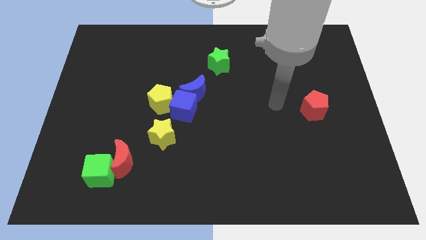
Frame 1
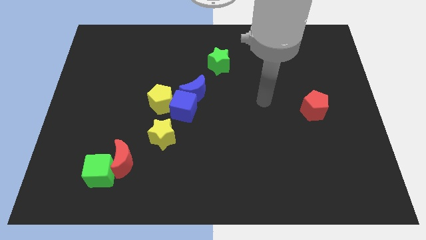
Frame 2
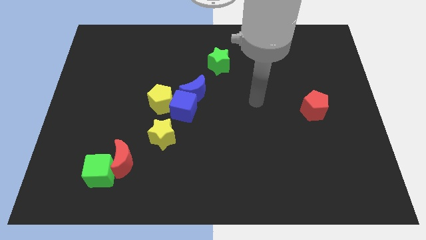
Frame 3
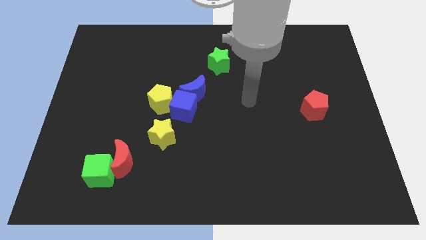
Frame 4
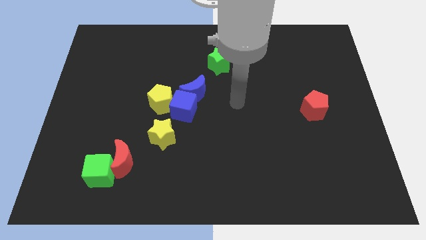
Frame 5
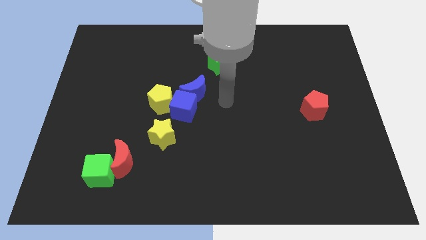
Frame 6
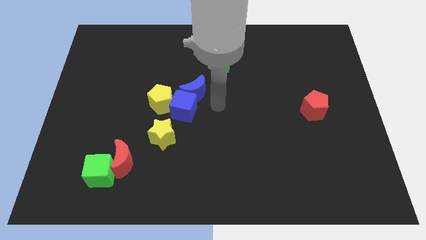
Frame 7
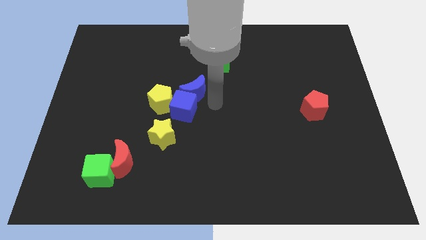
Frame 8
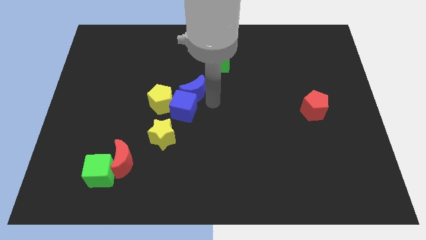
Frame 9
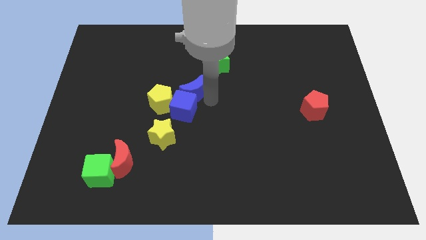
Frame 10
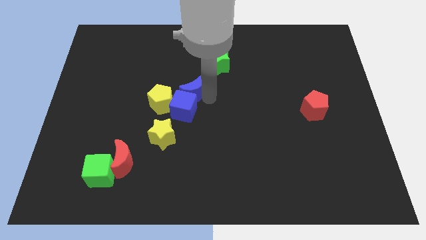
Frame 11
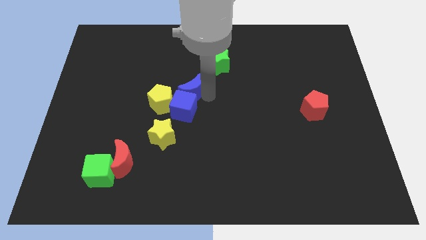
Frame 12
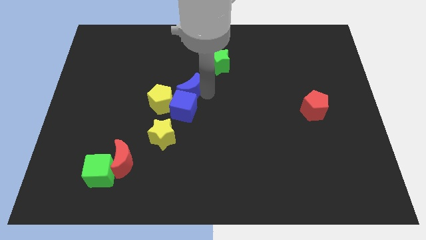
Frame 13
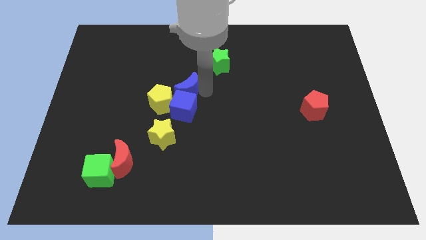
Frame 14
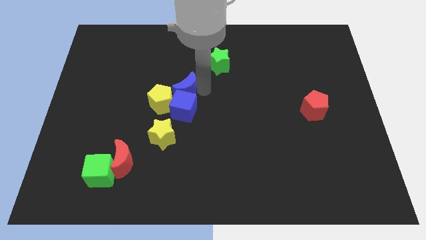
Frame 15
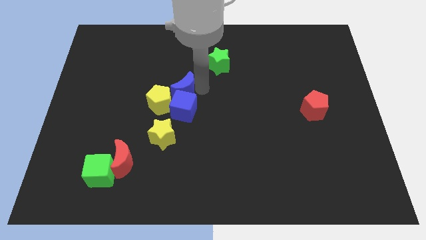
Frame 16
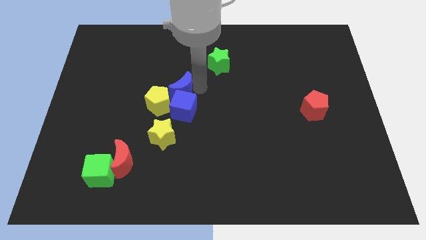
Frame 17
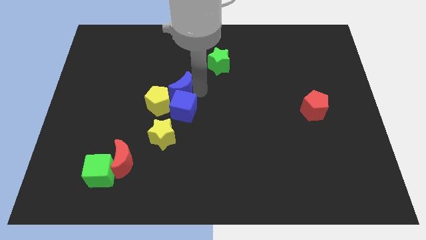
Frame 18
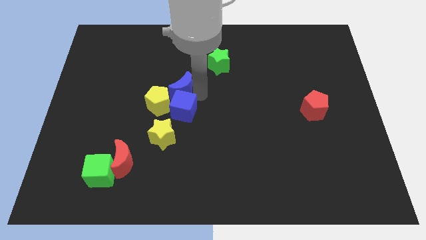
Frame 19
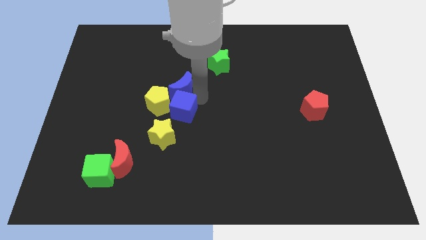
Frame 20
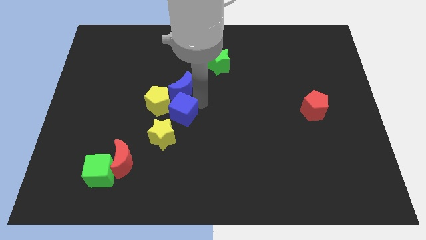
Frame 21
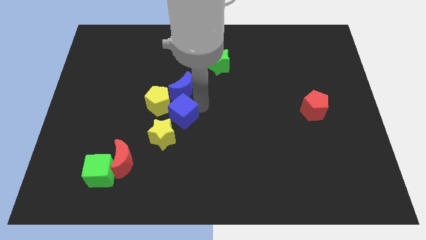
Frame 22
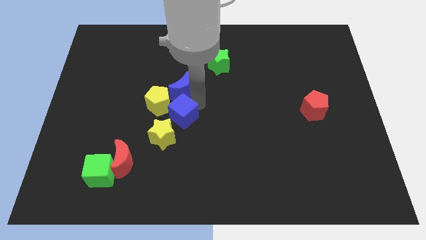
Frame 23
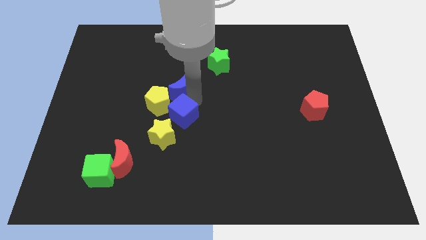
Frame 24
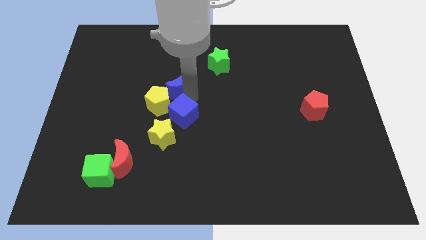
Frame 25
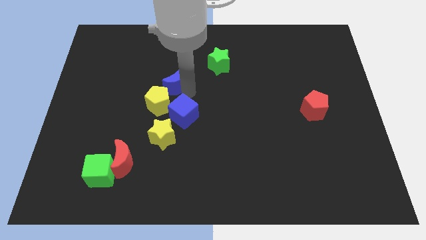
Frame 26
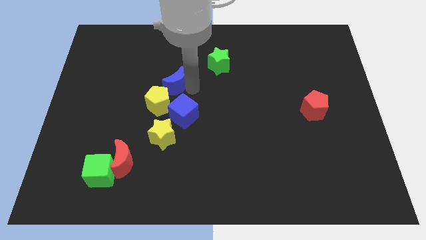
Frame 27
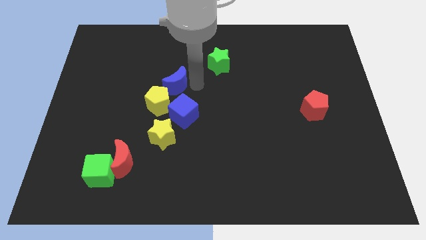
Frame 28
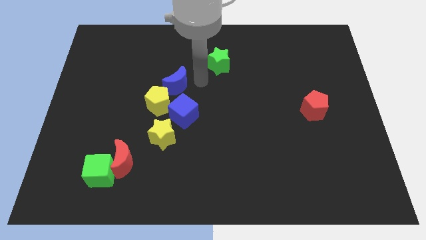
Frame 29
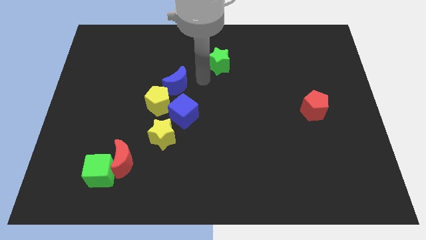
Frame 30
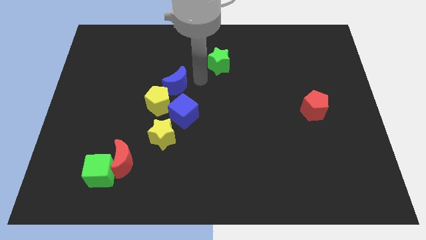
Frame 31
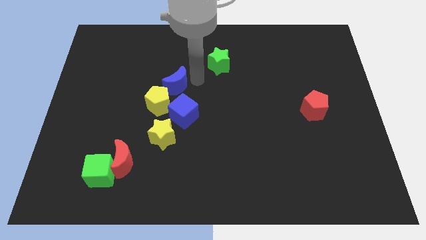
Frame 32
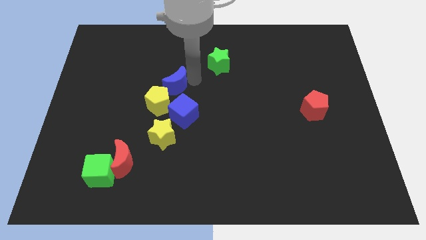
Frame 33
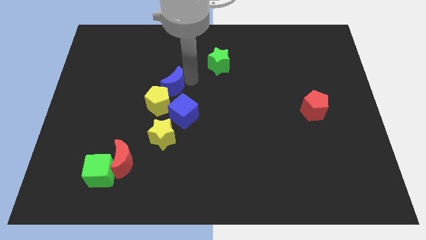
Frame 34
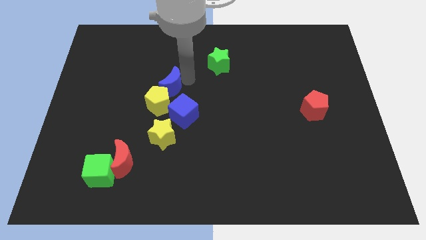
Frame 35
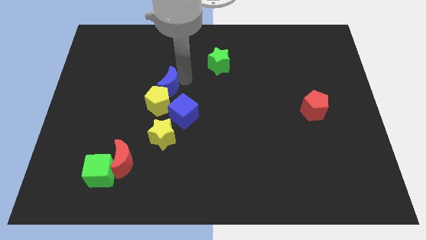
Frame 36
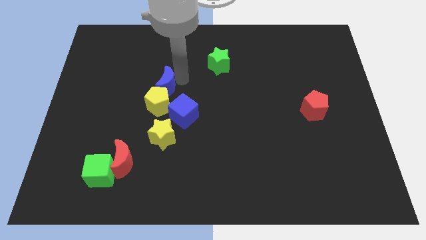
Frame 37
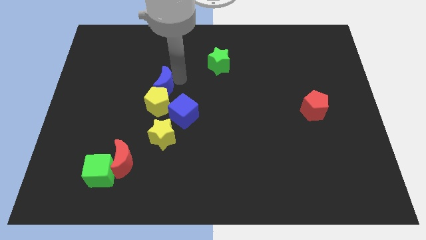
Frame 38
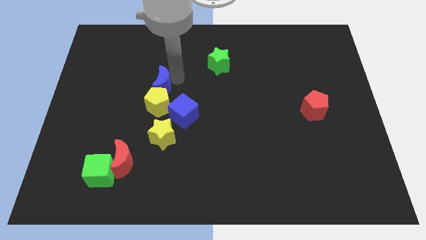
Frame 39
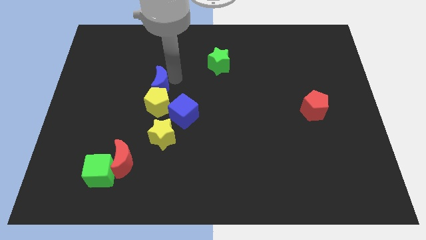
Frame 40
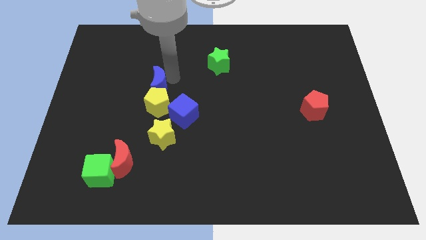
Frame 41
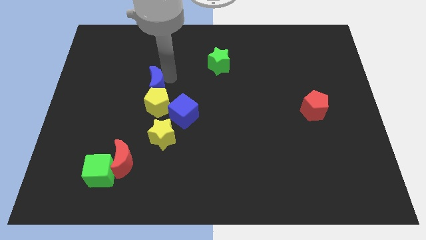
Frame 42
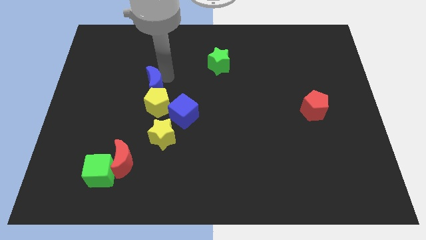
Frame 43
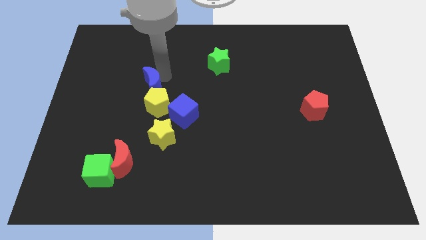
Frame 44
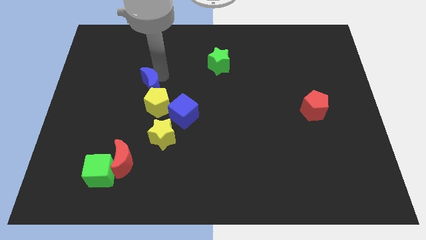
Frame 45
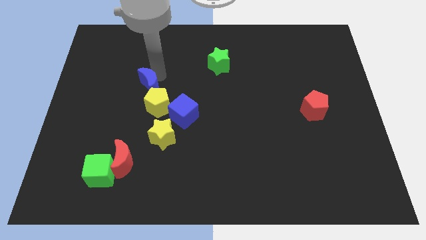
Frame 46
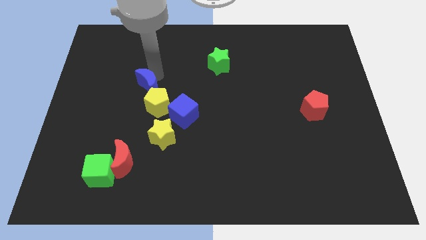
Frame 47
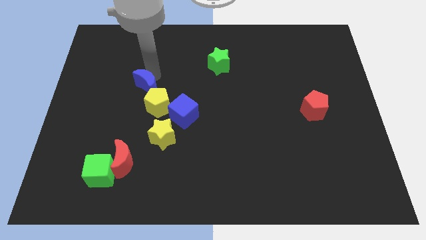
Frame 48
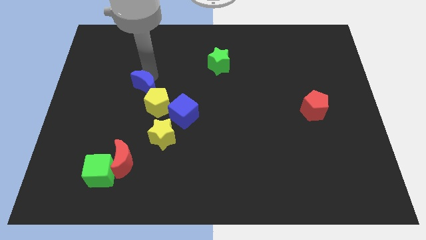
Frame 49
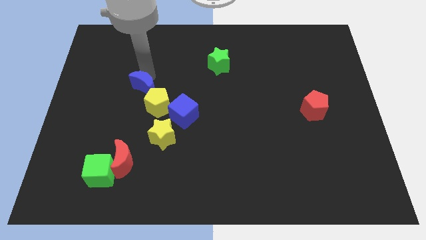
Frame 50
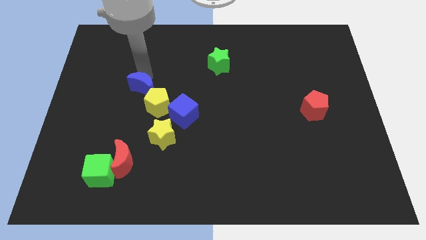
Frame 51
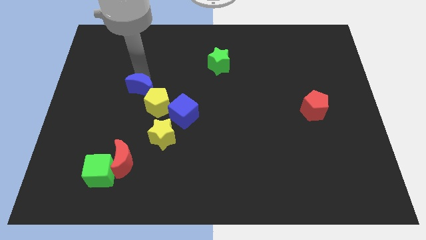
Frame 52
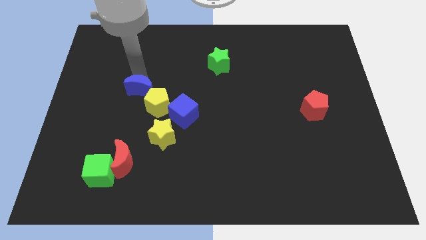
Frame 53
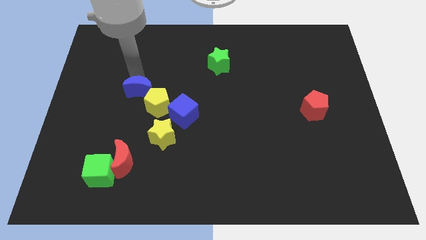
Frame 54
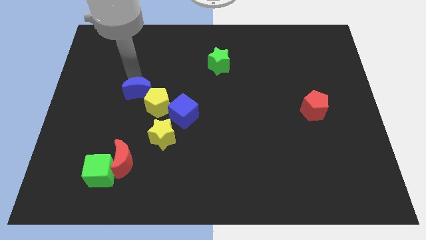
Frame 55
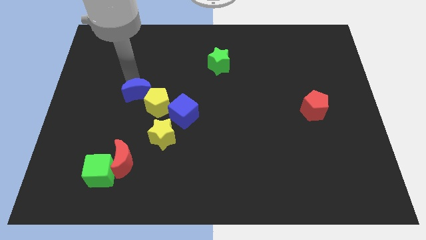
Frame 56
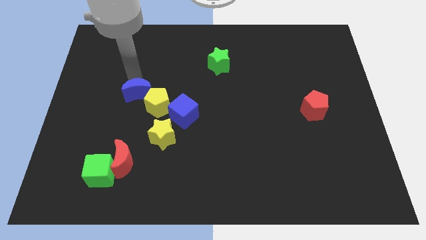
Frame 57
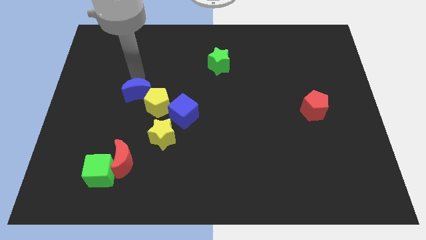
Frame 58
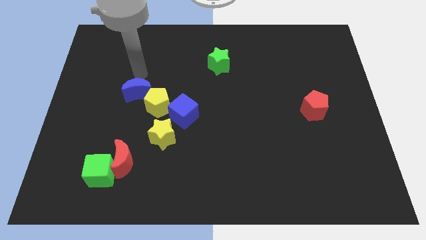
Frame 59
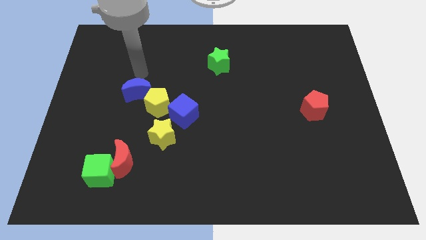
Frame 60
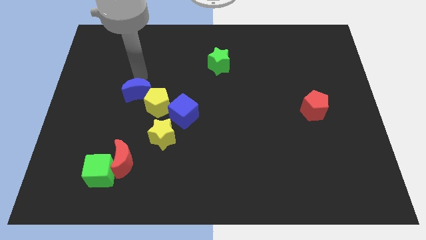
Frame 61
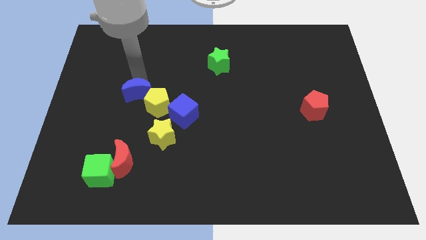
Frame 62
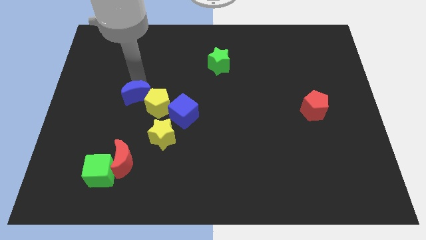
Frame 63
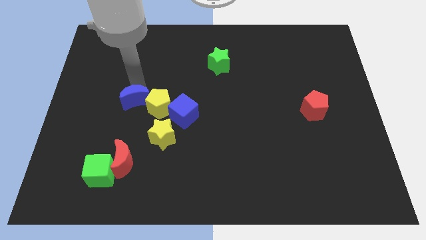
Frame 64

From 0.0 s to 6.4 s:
move the blue moon somewhat down and left

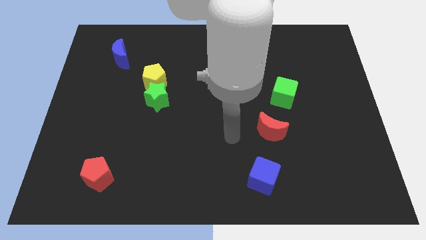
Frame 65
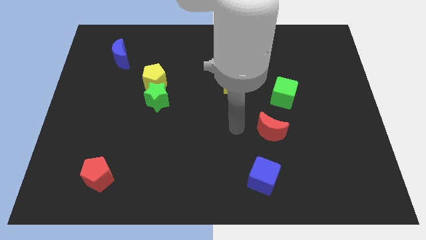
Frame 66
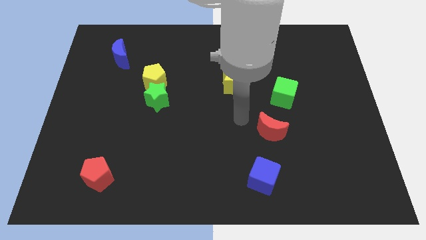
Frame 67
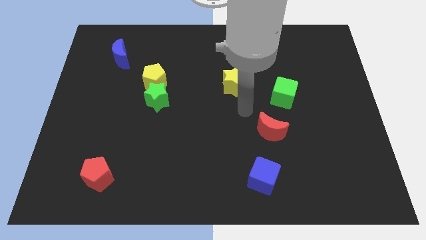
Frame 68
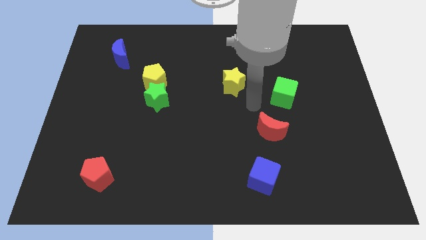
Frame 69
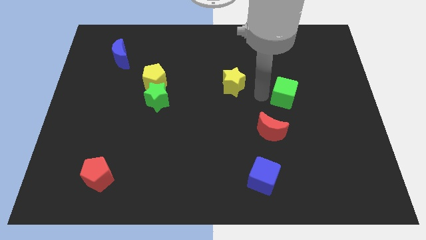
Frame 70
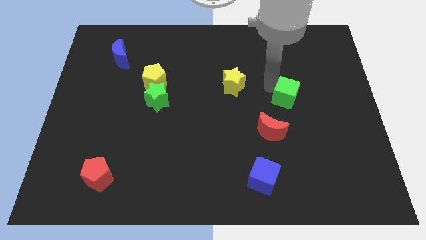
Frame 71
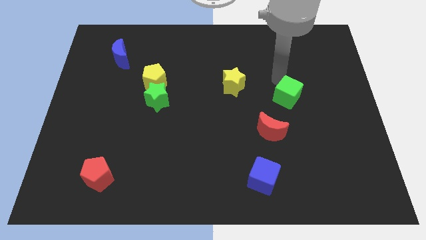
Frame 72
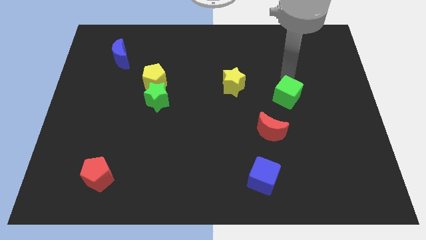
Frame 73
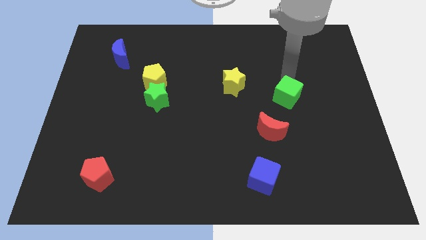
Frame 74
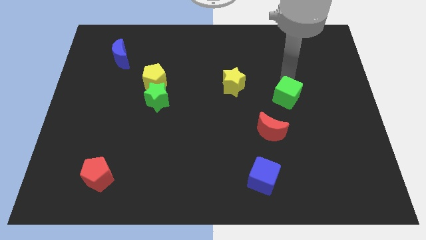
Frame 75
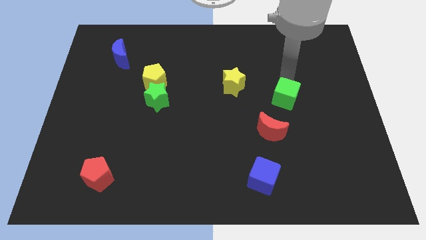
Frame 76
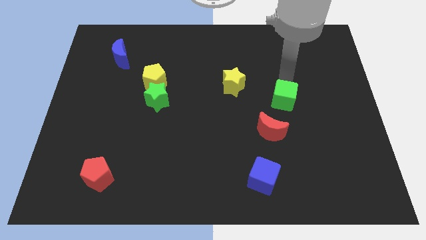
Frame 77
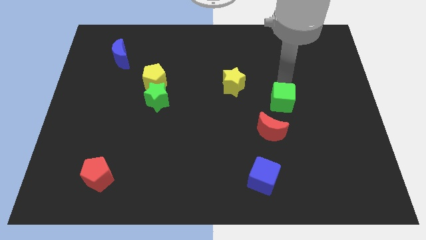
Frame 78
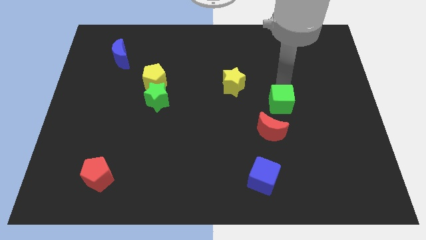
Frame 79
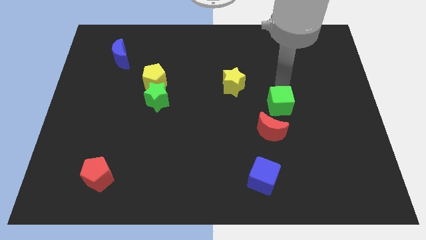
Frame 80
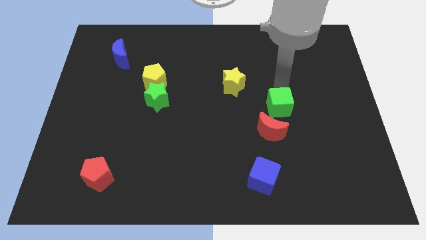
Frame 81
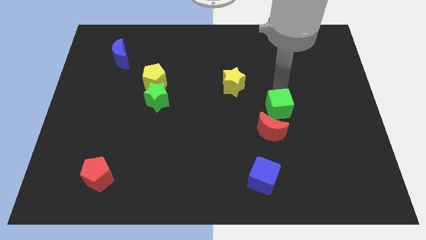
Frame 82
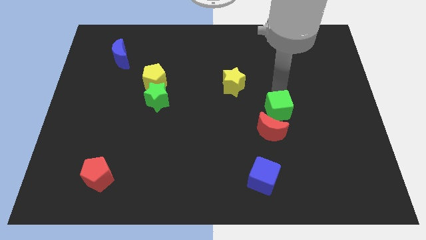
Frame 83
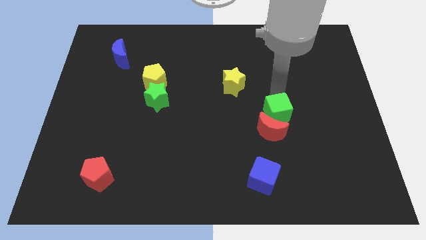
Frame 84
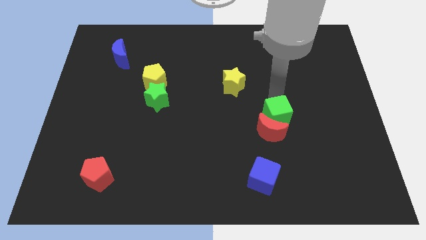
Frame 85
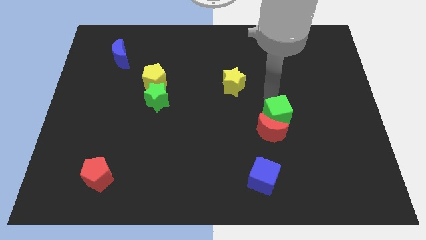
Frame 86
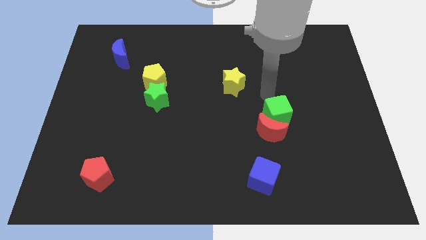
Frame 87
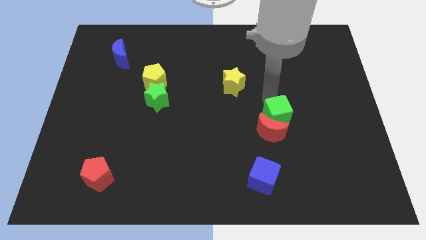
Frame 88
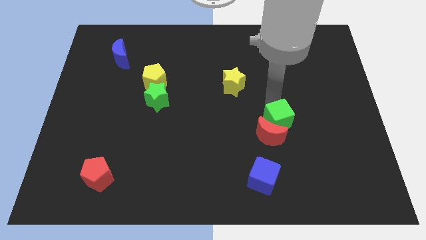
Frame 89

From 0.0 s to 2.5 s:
slightly push the green cube down
